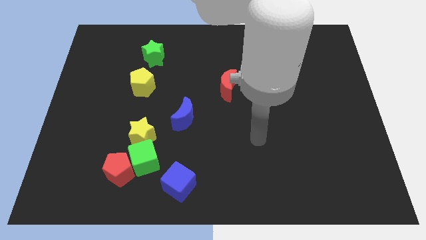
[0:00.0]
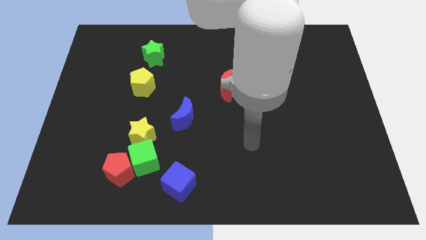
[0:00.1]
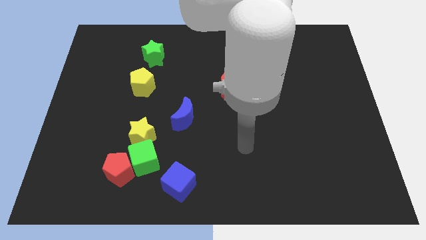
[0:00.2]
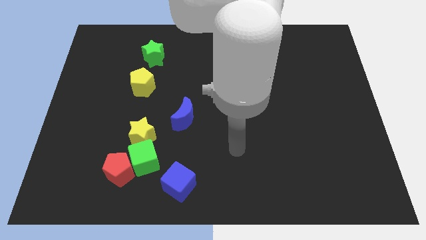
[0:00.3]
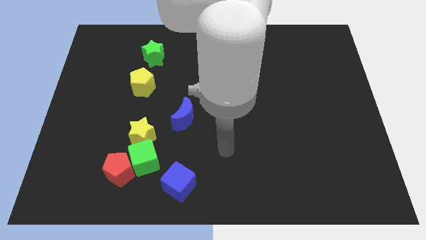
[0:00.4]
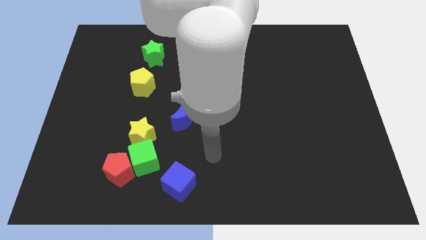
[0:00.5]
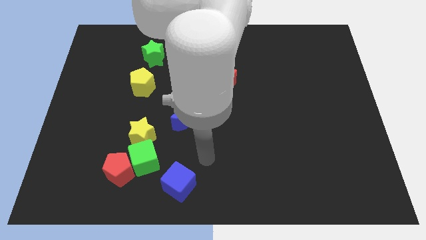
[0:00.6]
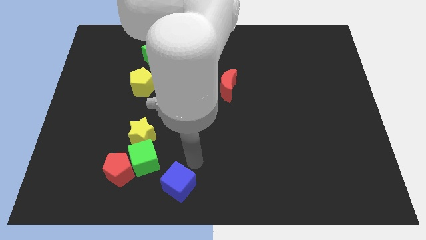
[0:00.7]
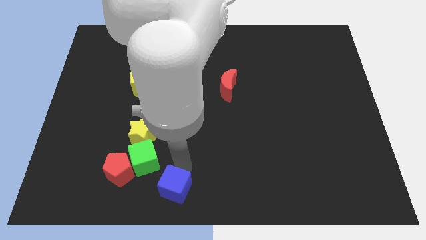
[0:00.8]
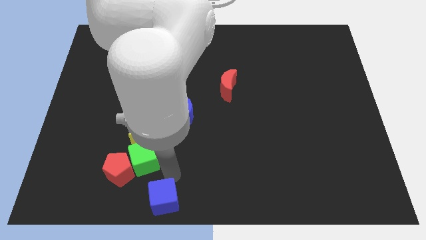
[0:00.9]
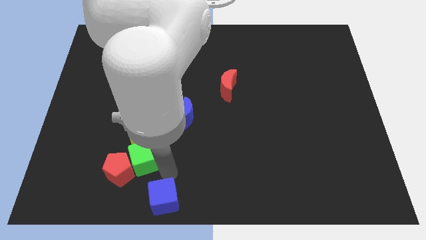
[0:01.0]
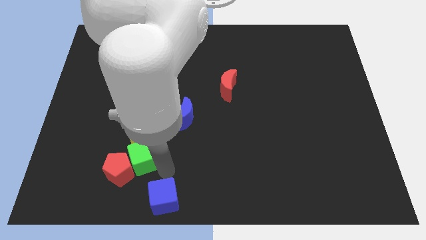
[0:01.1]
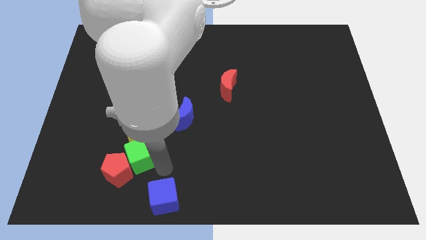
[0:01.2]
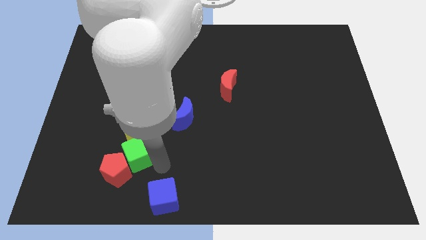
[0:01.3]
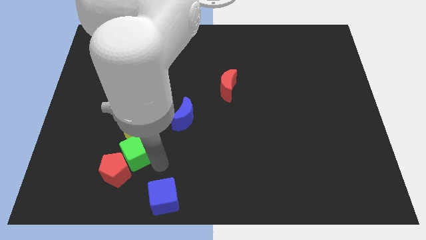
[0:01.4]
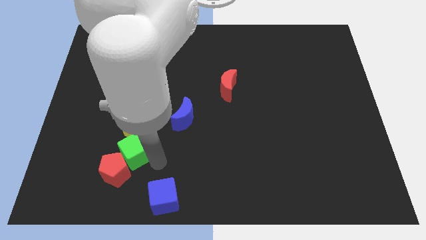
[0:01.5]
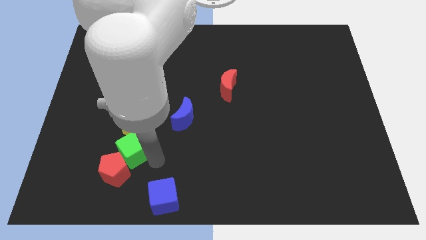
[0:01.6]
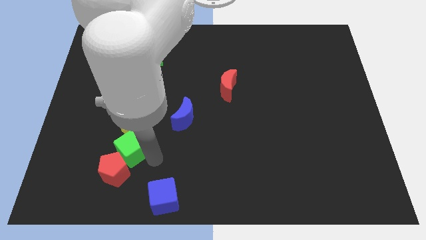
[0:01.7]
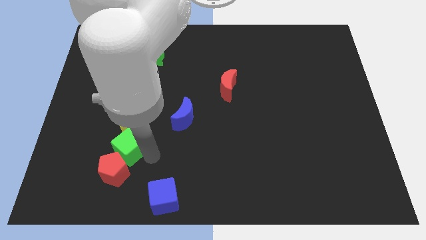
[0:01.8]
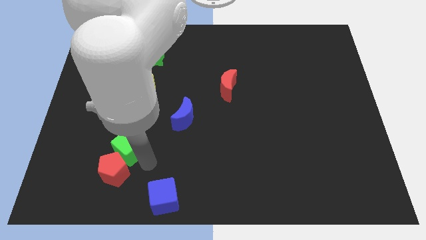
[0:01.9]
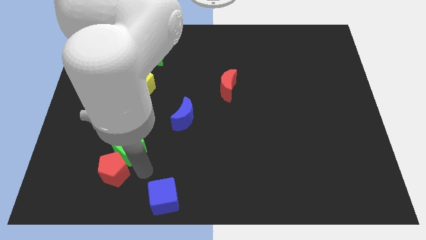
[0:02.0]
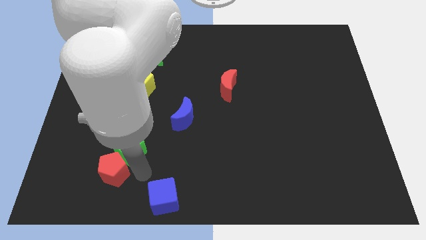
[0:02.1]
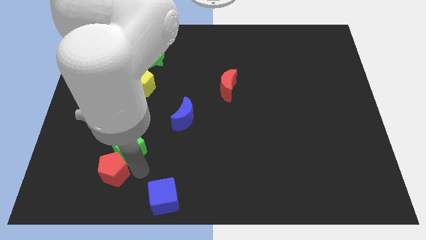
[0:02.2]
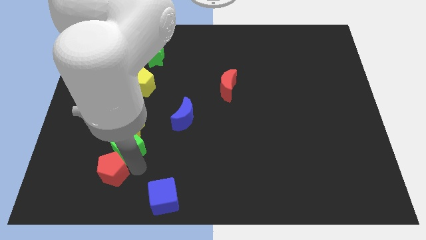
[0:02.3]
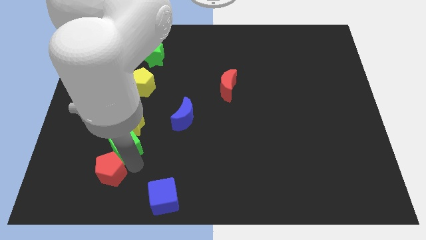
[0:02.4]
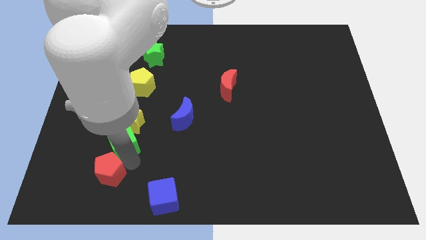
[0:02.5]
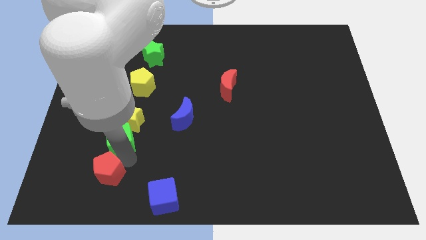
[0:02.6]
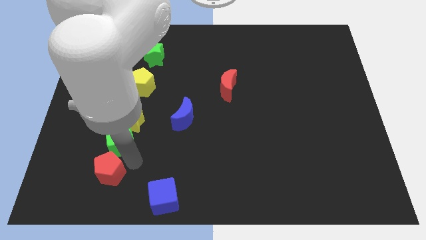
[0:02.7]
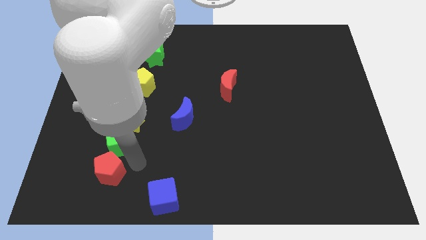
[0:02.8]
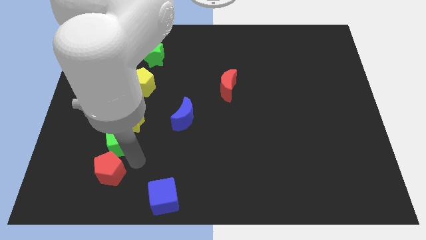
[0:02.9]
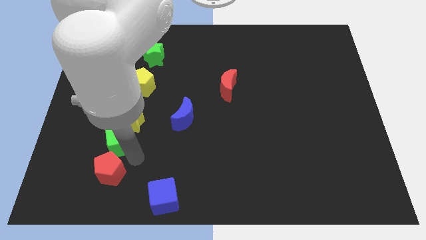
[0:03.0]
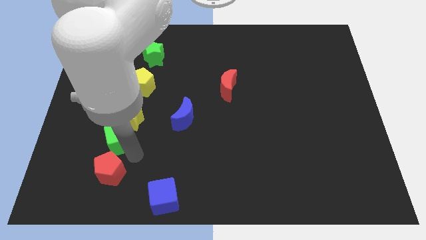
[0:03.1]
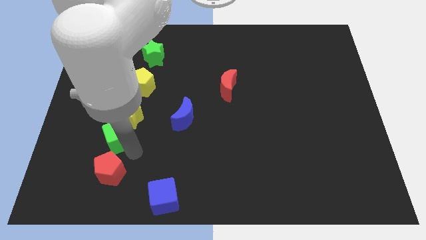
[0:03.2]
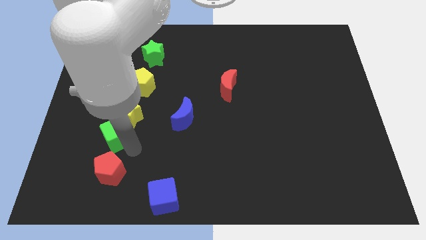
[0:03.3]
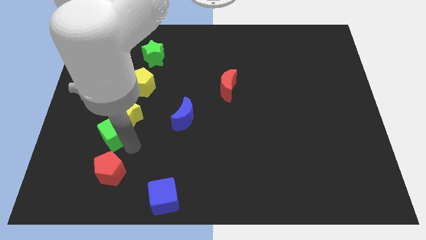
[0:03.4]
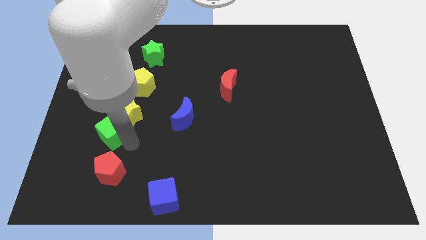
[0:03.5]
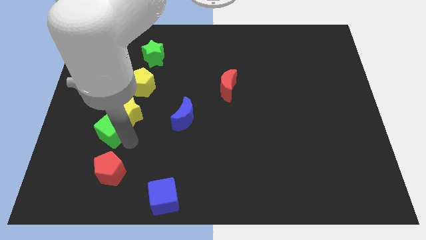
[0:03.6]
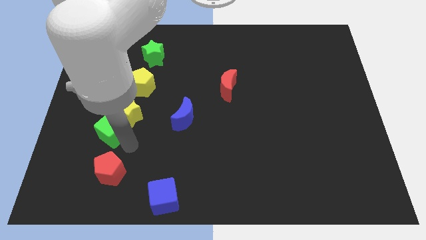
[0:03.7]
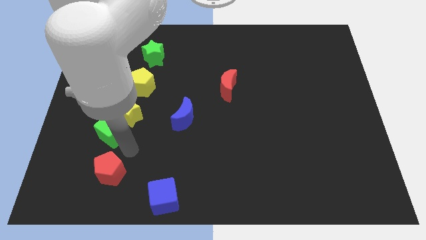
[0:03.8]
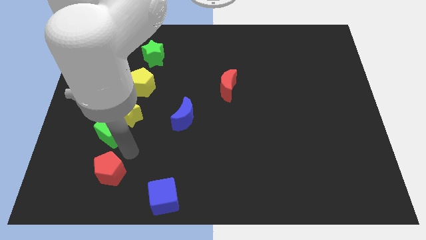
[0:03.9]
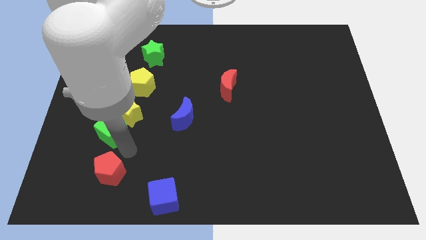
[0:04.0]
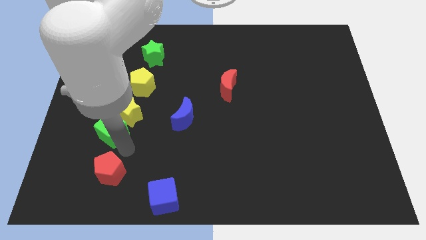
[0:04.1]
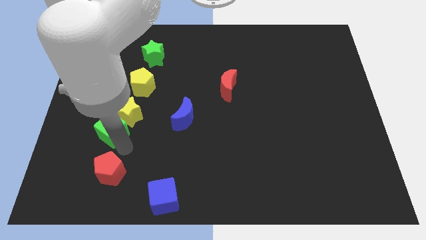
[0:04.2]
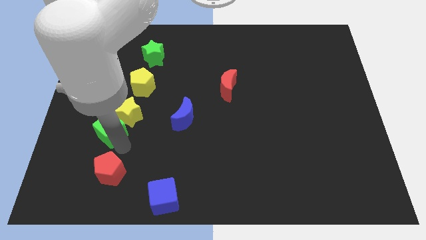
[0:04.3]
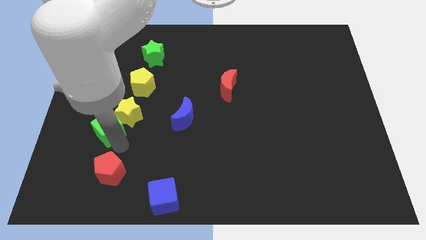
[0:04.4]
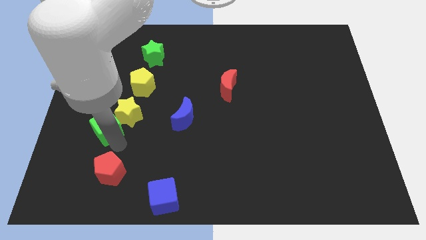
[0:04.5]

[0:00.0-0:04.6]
separate the green cube from the group of blocks

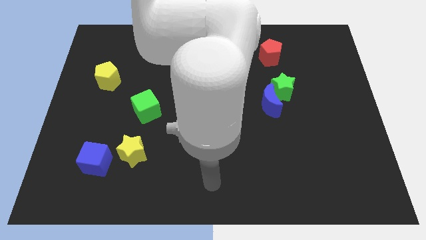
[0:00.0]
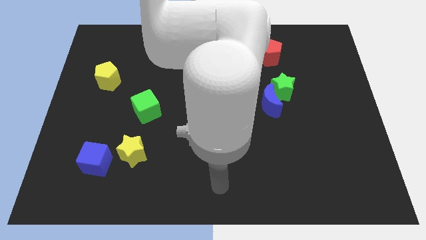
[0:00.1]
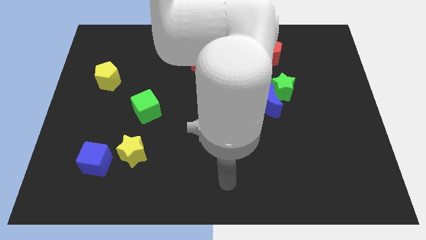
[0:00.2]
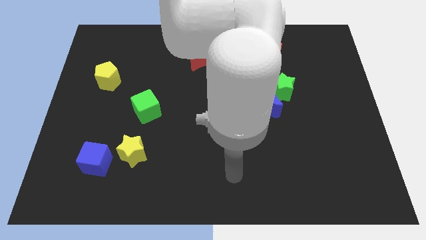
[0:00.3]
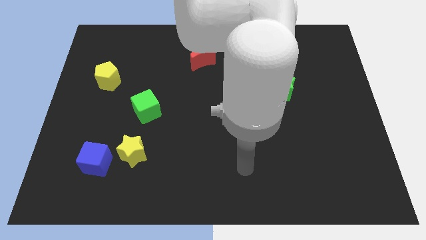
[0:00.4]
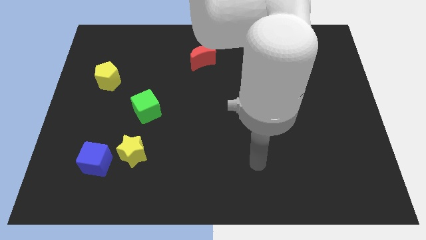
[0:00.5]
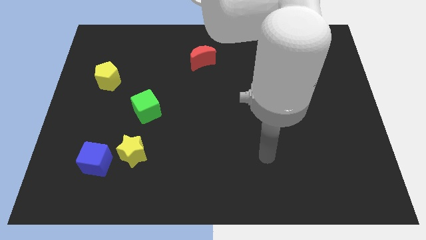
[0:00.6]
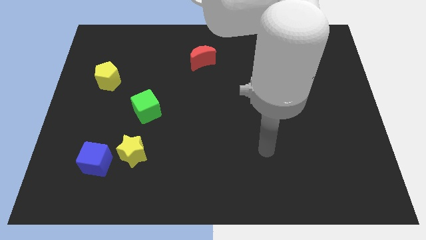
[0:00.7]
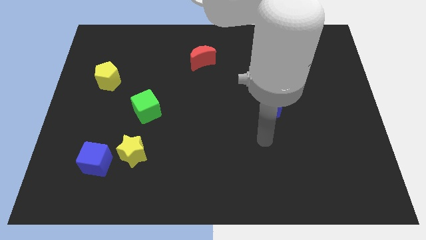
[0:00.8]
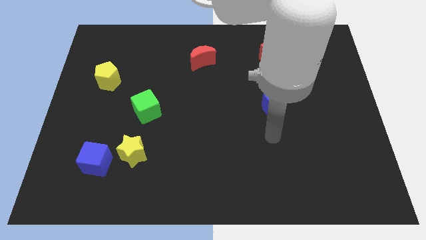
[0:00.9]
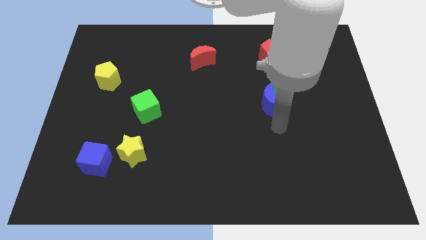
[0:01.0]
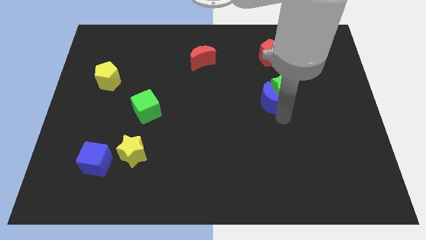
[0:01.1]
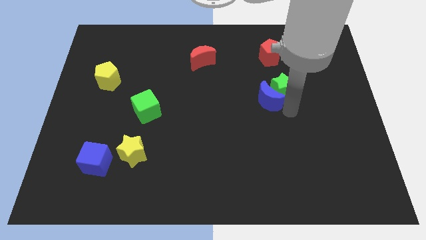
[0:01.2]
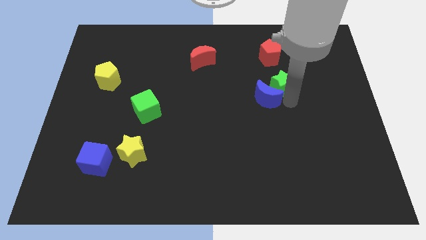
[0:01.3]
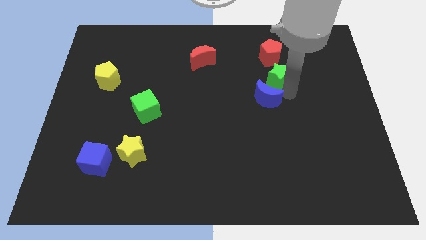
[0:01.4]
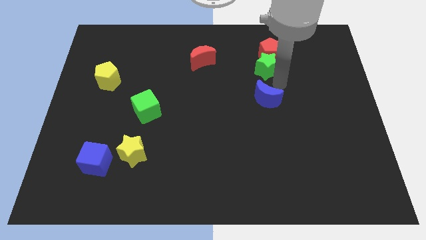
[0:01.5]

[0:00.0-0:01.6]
pull the blue moon apart from the green star

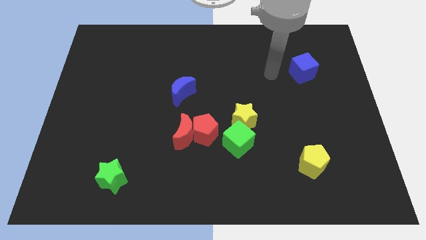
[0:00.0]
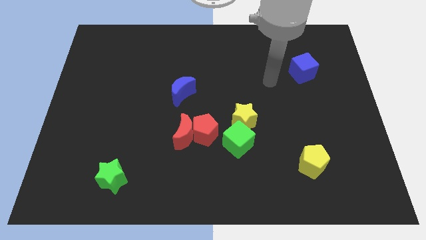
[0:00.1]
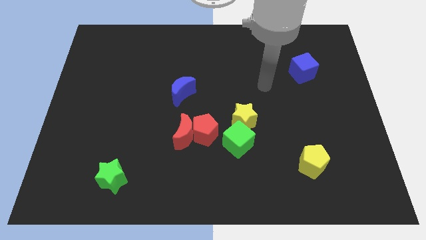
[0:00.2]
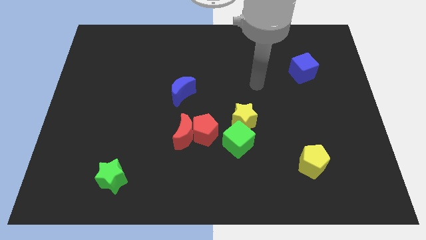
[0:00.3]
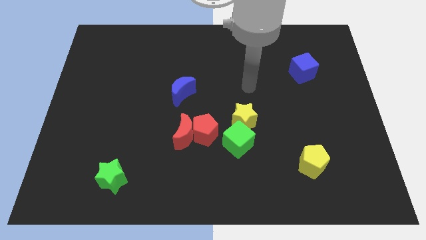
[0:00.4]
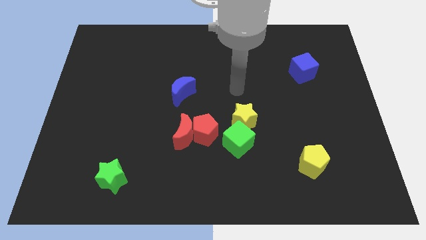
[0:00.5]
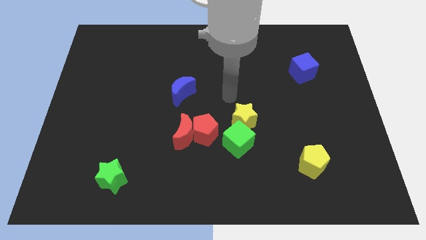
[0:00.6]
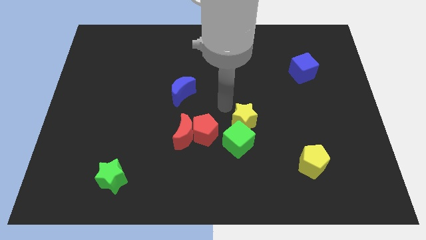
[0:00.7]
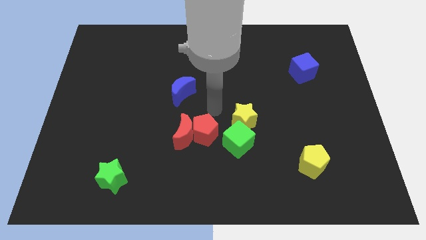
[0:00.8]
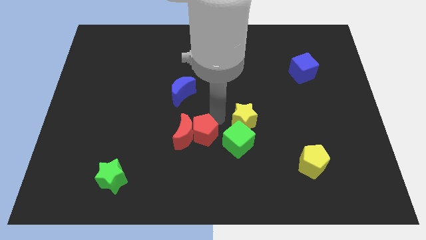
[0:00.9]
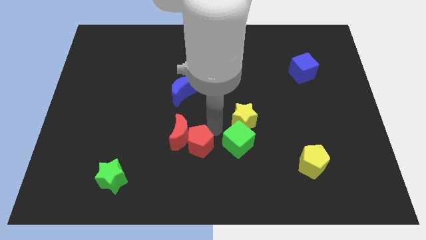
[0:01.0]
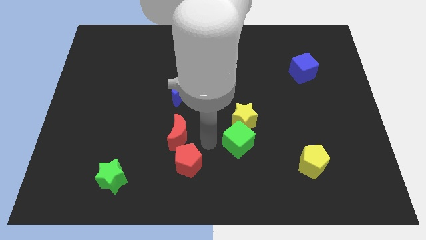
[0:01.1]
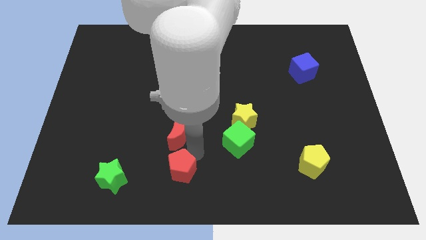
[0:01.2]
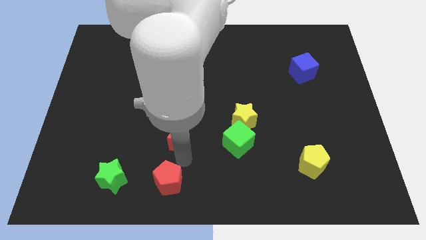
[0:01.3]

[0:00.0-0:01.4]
pull the red moon apart from the red pentagon

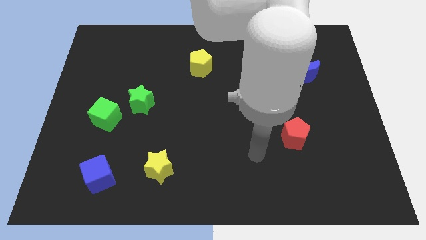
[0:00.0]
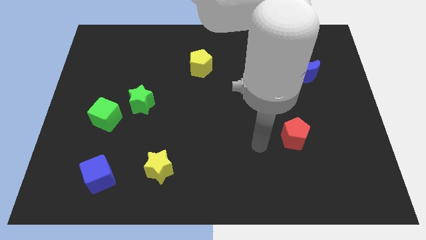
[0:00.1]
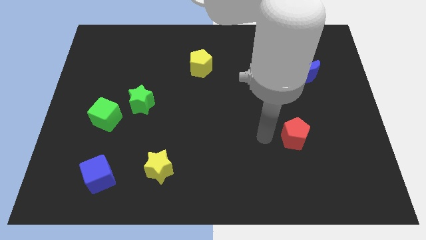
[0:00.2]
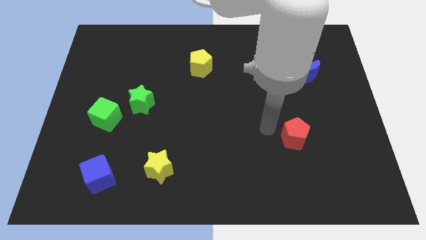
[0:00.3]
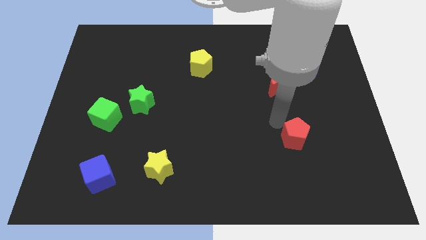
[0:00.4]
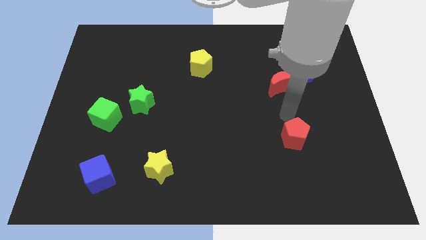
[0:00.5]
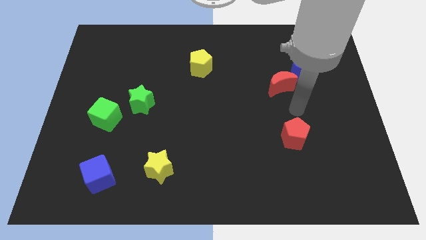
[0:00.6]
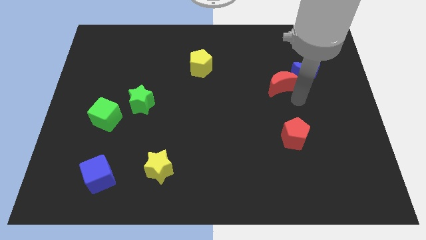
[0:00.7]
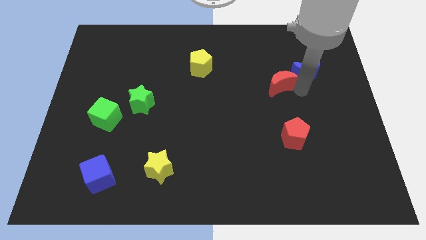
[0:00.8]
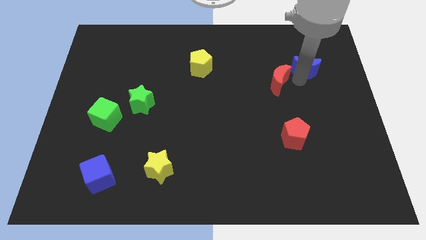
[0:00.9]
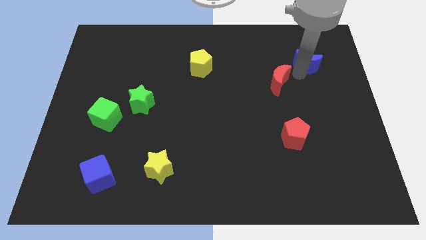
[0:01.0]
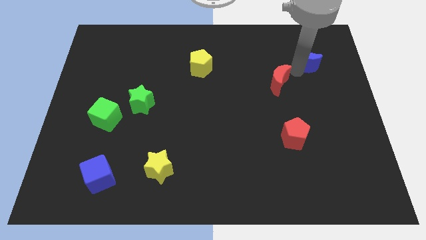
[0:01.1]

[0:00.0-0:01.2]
move the red moon away from the blue moon

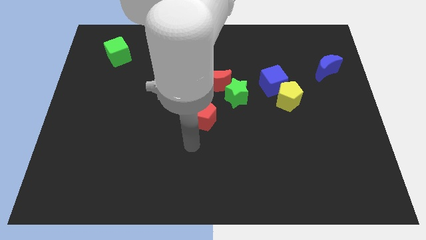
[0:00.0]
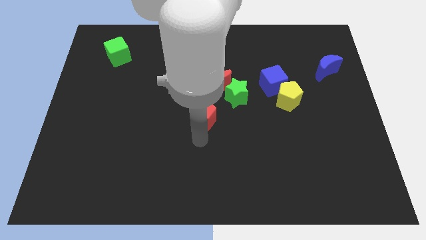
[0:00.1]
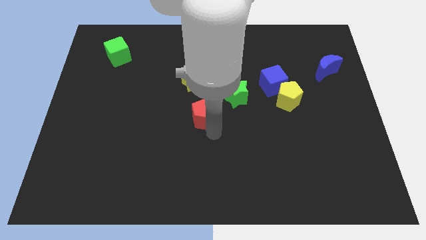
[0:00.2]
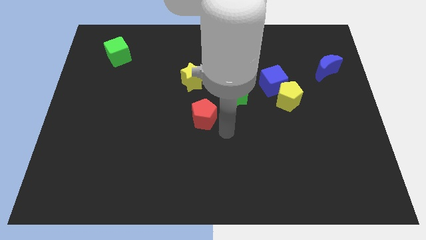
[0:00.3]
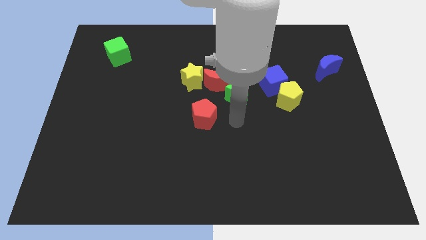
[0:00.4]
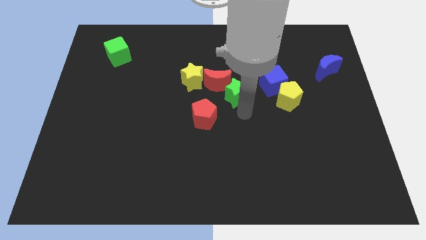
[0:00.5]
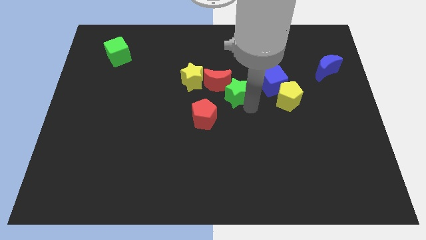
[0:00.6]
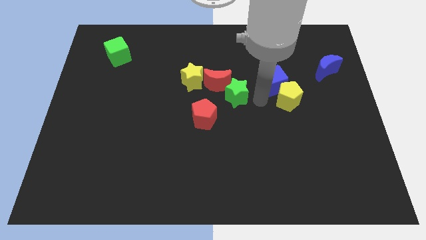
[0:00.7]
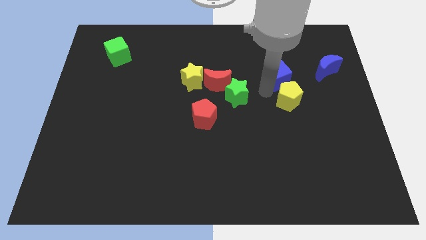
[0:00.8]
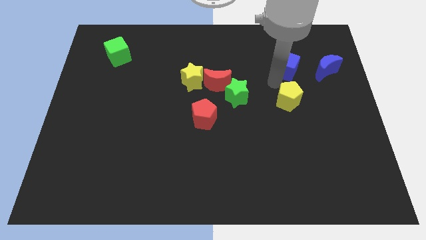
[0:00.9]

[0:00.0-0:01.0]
move the yellow pentagon away from the blue cube
